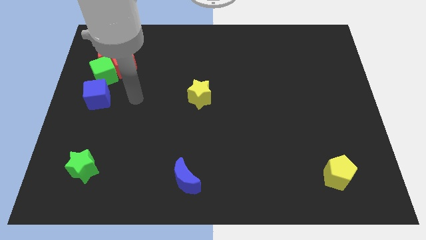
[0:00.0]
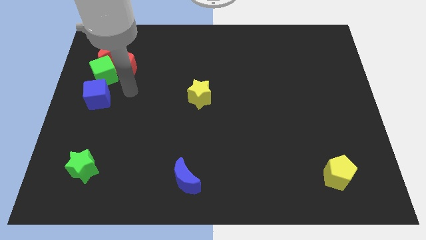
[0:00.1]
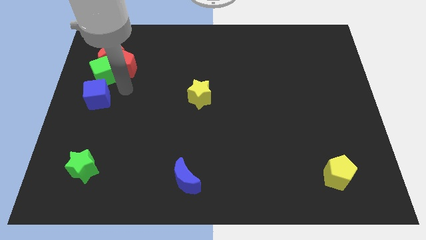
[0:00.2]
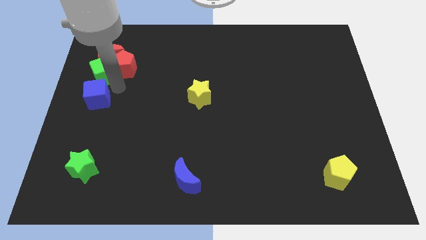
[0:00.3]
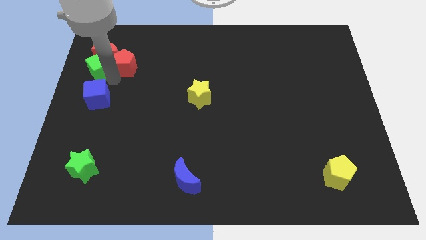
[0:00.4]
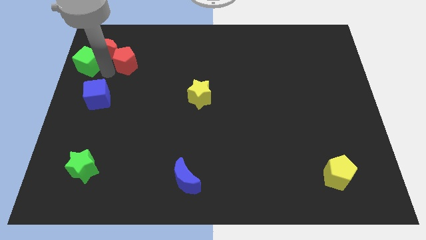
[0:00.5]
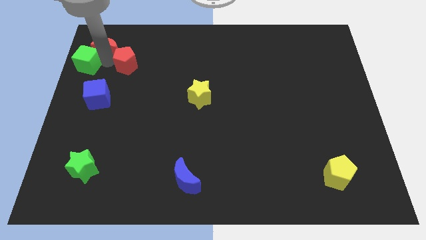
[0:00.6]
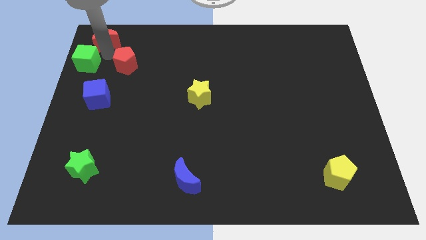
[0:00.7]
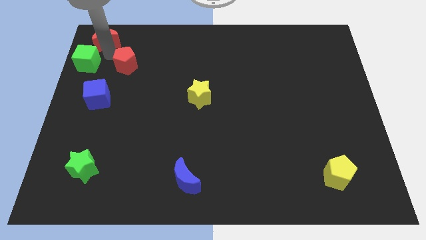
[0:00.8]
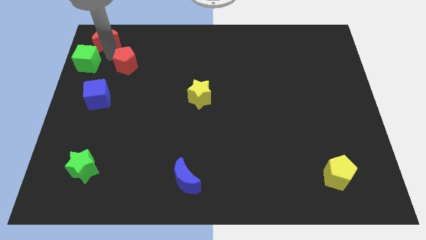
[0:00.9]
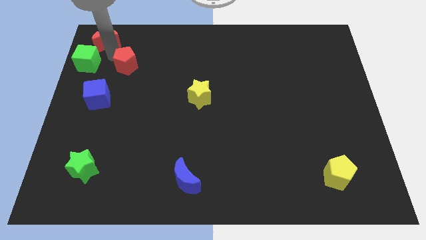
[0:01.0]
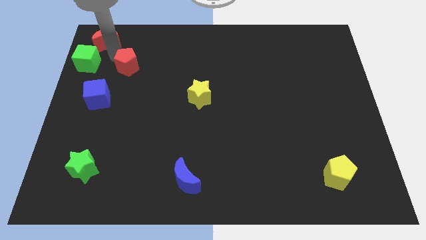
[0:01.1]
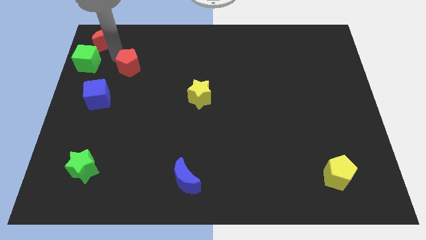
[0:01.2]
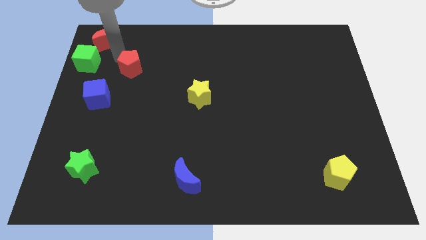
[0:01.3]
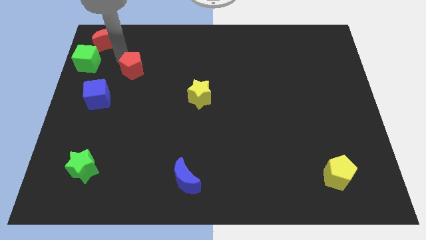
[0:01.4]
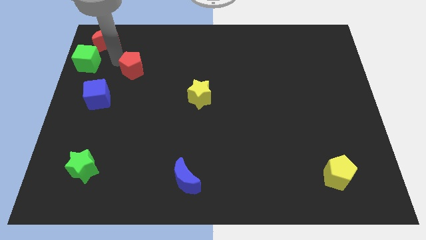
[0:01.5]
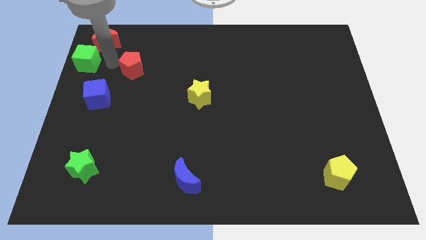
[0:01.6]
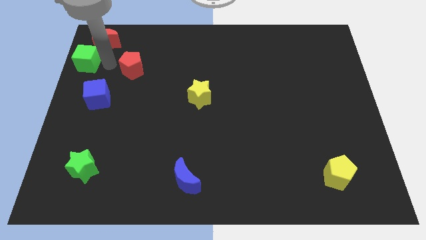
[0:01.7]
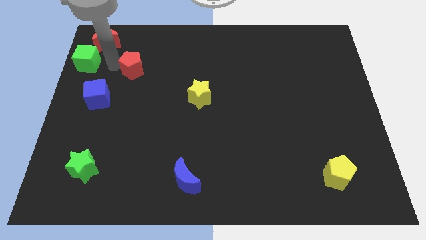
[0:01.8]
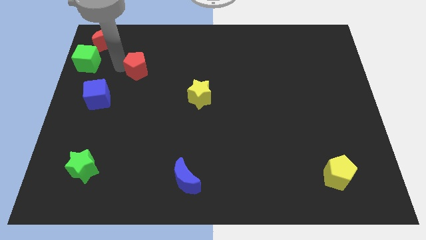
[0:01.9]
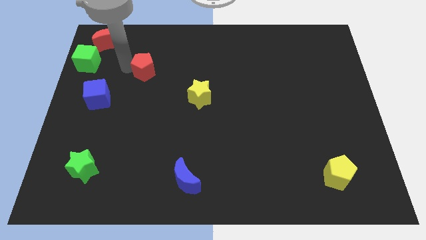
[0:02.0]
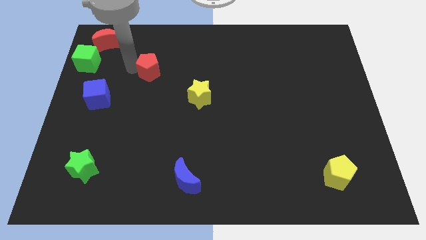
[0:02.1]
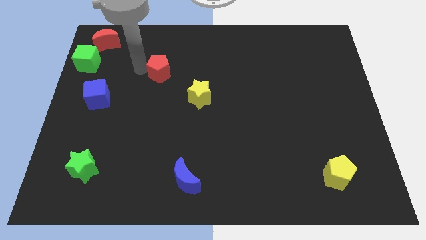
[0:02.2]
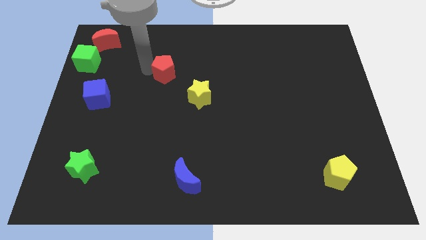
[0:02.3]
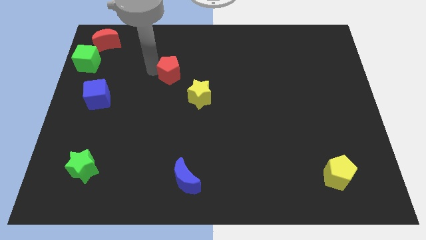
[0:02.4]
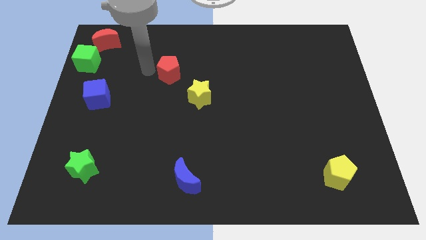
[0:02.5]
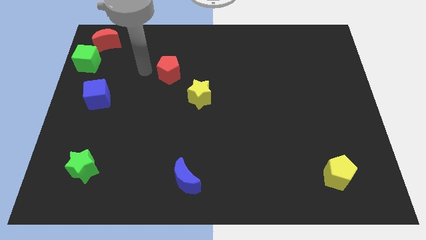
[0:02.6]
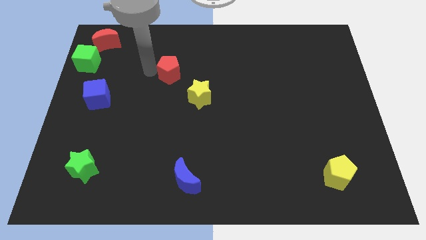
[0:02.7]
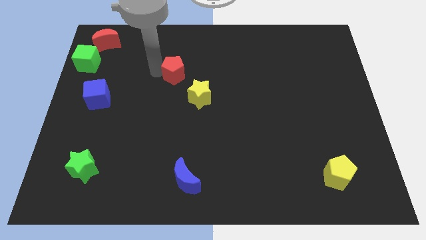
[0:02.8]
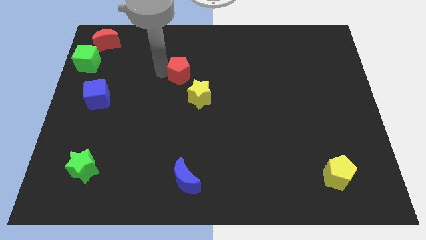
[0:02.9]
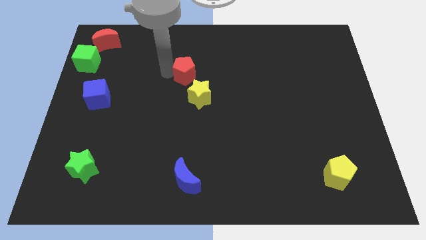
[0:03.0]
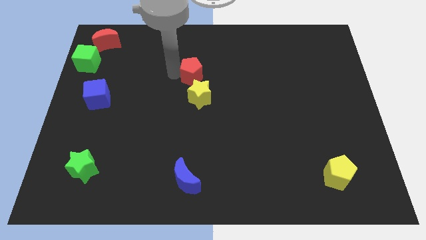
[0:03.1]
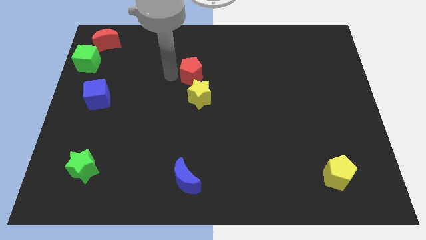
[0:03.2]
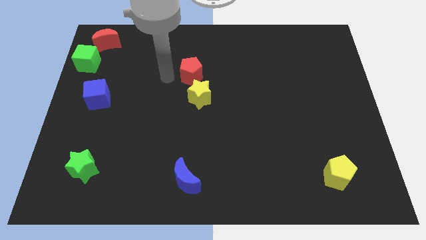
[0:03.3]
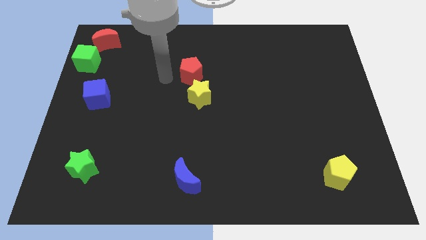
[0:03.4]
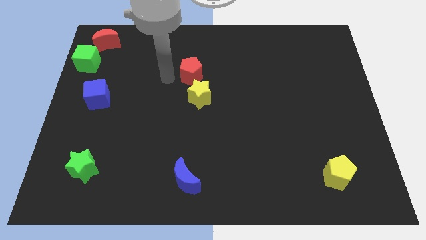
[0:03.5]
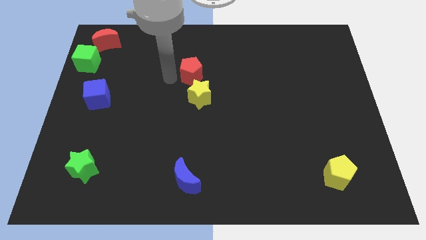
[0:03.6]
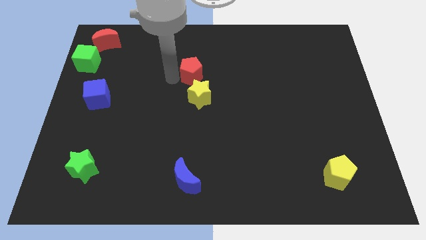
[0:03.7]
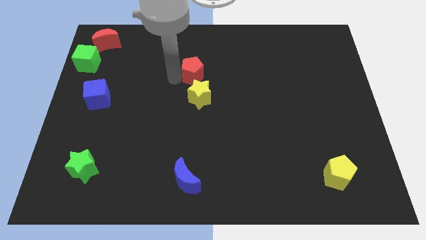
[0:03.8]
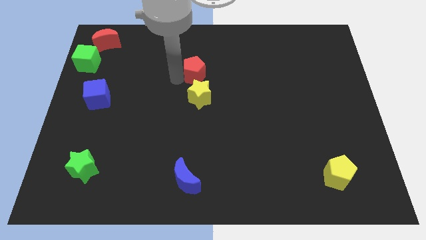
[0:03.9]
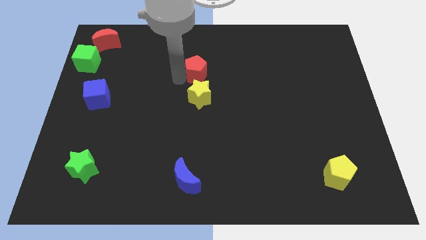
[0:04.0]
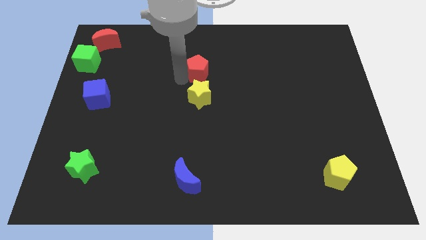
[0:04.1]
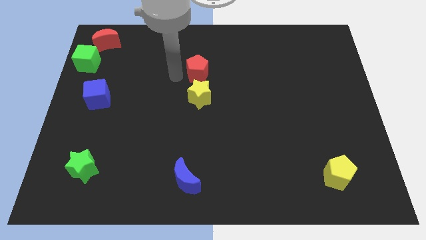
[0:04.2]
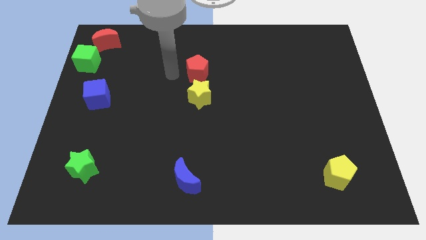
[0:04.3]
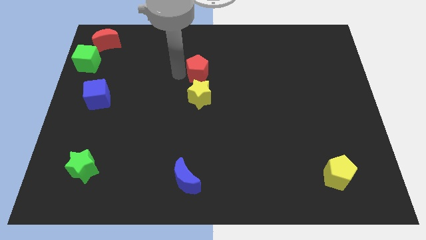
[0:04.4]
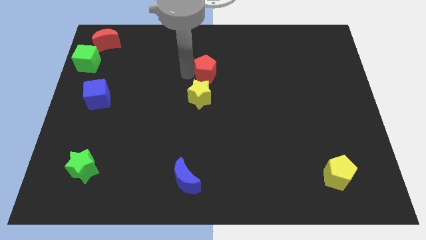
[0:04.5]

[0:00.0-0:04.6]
move the red pentagon to the right

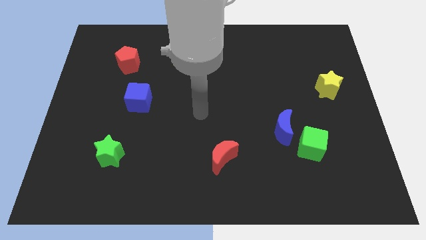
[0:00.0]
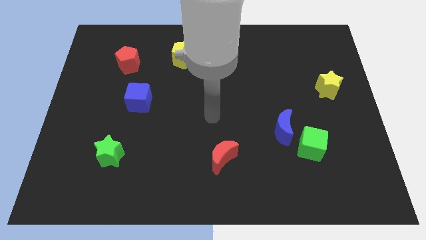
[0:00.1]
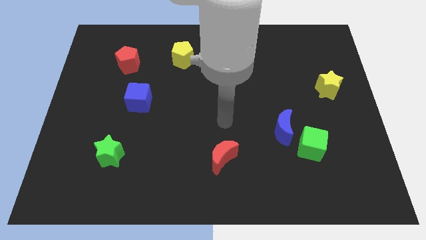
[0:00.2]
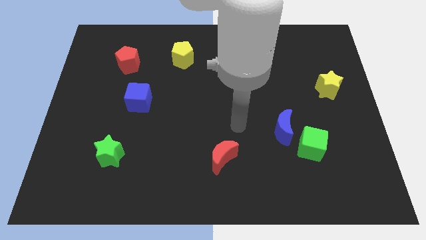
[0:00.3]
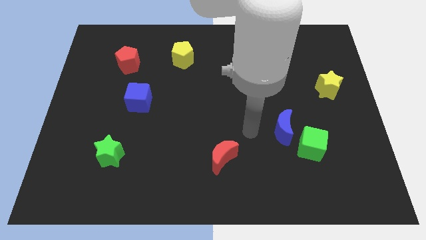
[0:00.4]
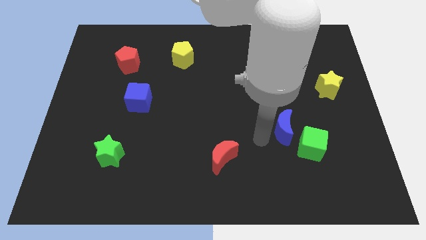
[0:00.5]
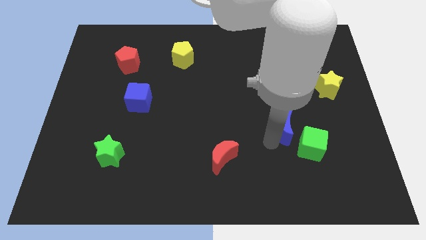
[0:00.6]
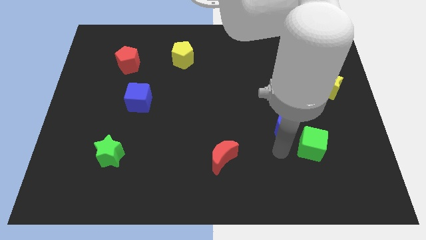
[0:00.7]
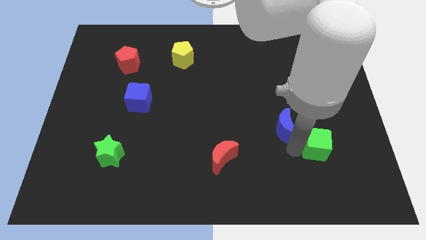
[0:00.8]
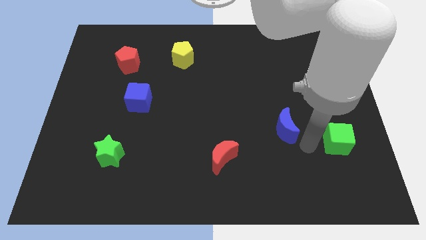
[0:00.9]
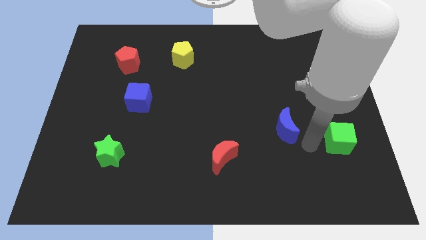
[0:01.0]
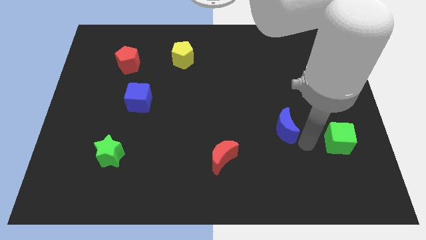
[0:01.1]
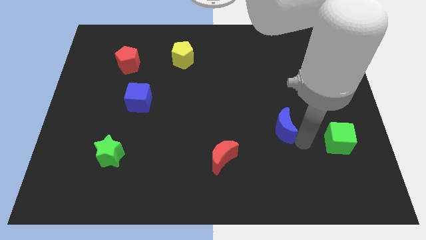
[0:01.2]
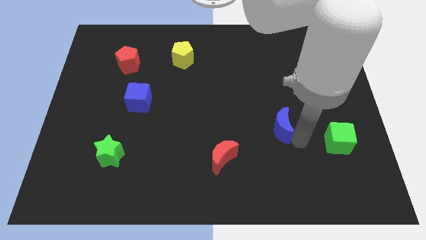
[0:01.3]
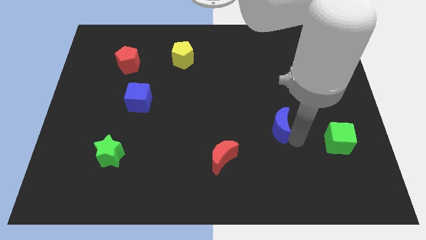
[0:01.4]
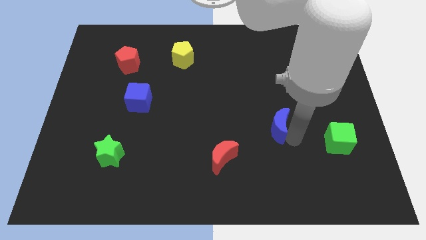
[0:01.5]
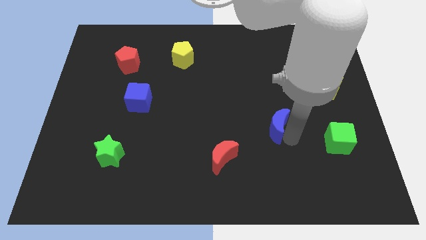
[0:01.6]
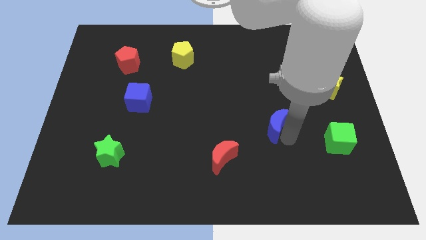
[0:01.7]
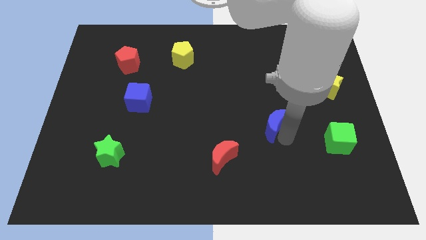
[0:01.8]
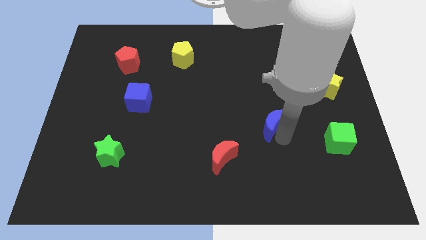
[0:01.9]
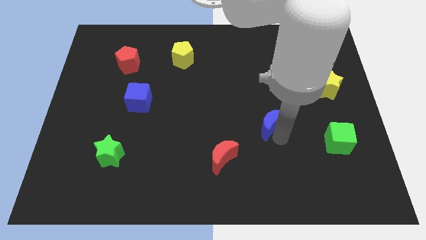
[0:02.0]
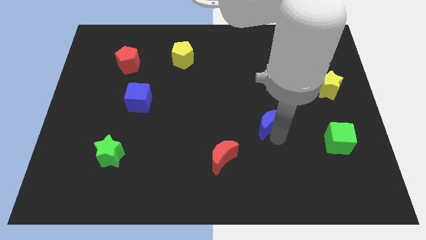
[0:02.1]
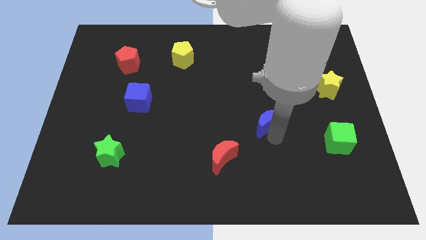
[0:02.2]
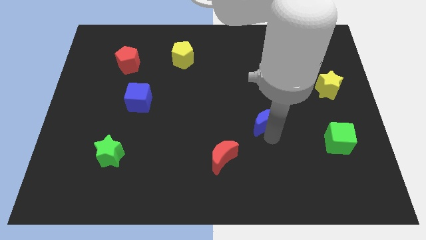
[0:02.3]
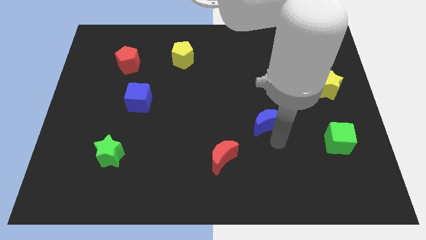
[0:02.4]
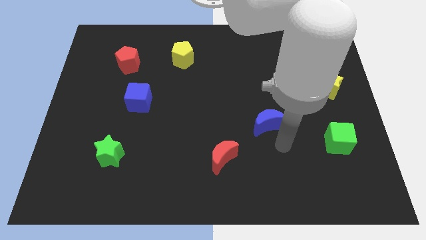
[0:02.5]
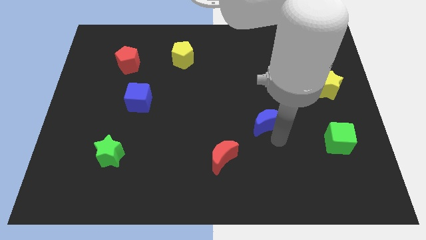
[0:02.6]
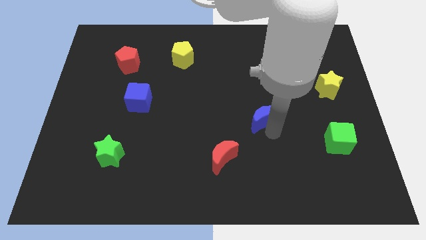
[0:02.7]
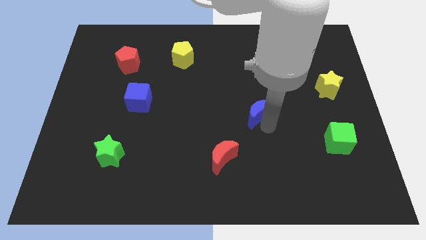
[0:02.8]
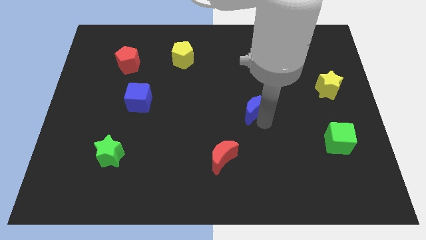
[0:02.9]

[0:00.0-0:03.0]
push the blue moon upwards and then to the left a little bit

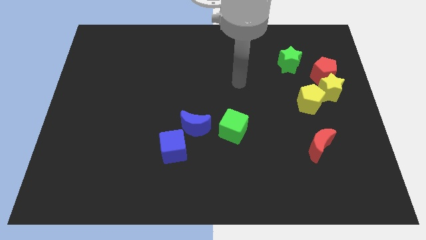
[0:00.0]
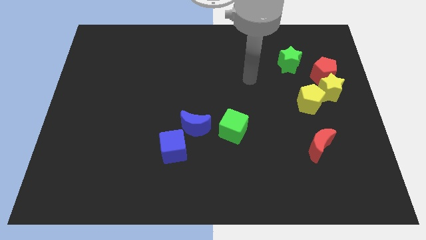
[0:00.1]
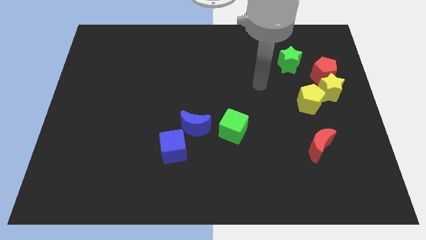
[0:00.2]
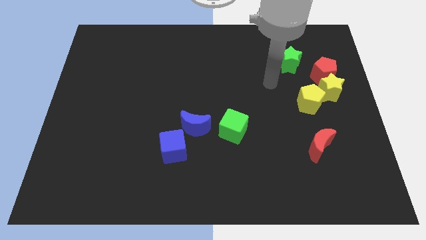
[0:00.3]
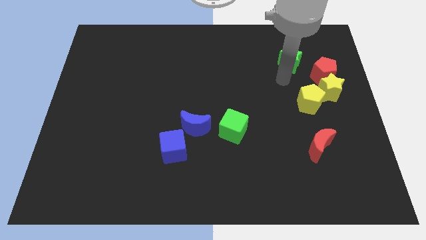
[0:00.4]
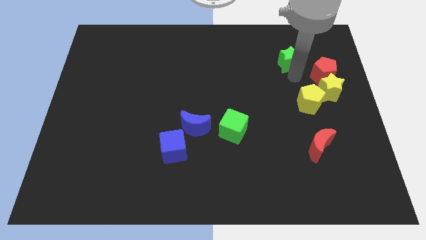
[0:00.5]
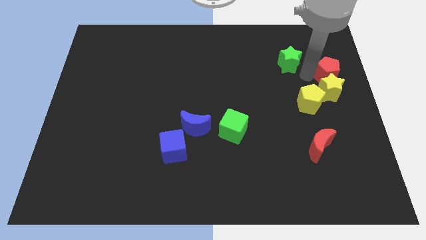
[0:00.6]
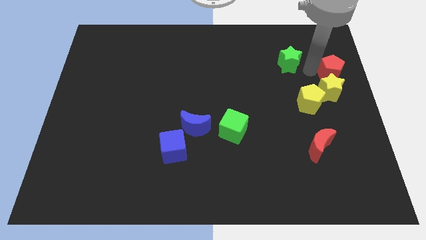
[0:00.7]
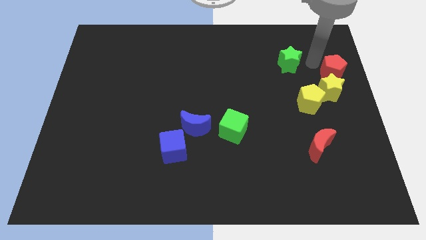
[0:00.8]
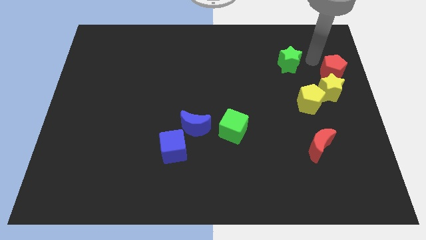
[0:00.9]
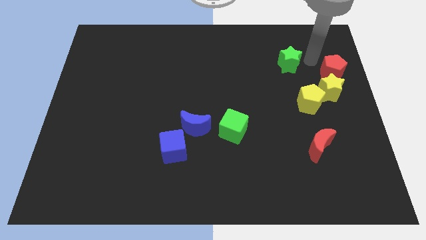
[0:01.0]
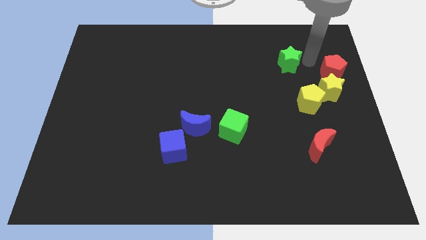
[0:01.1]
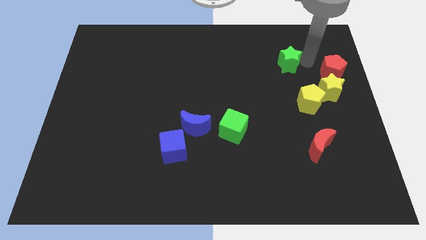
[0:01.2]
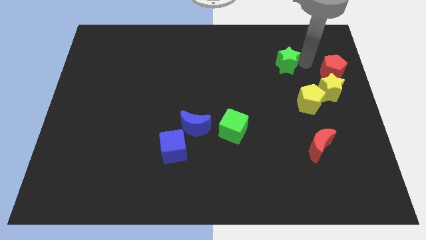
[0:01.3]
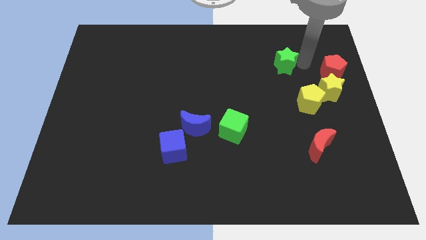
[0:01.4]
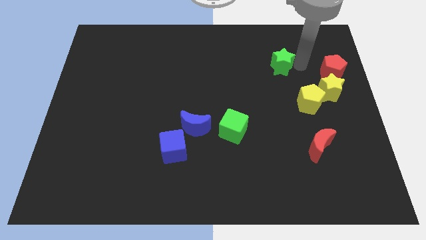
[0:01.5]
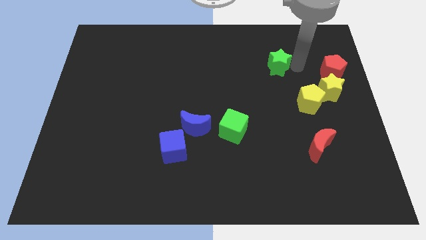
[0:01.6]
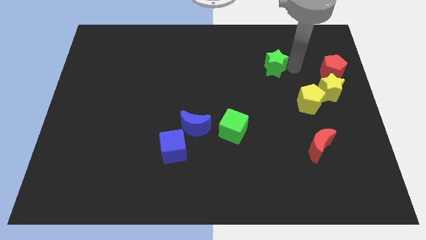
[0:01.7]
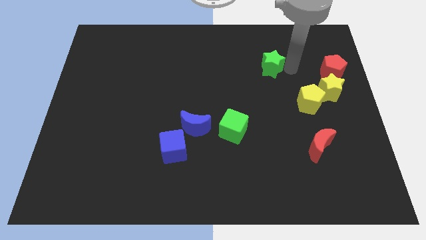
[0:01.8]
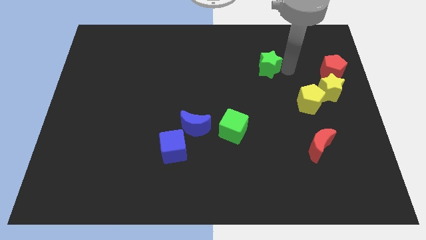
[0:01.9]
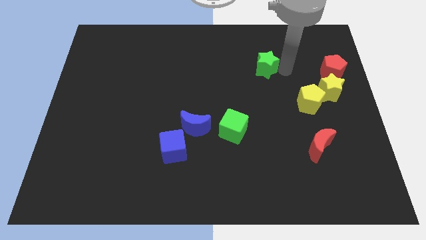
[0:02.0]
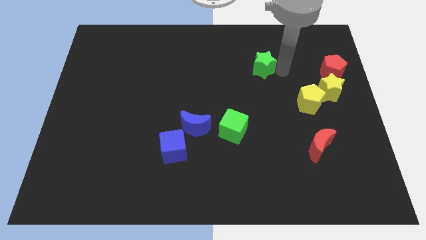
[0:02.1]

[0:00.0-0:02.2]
slightly push the green star left
